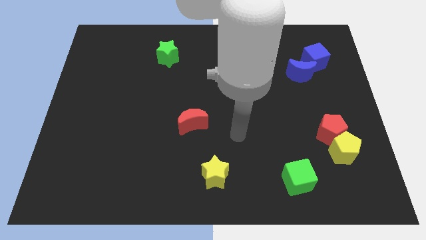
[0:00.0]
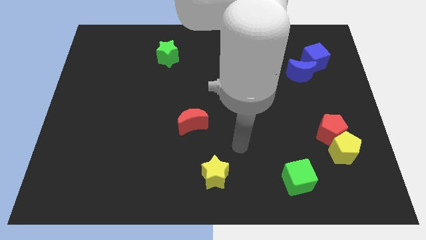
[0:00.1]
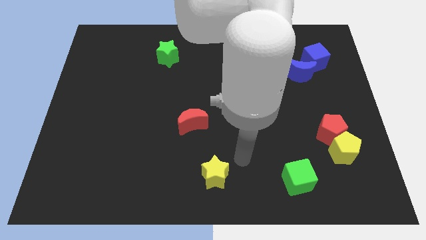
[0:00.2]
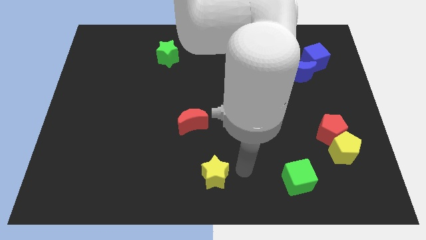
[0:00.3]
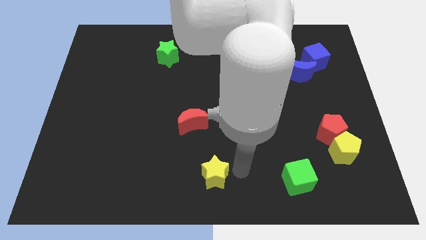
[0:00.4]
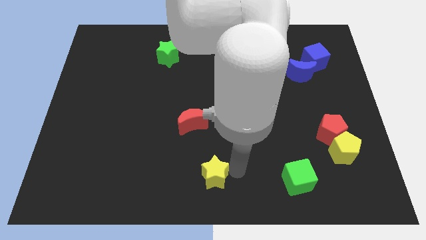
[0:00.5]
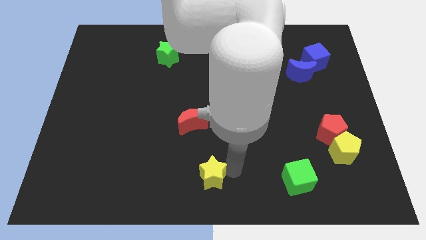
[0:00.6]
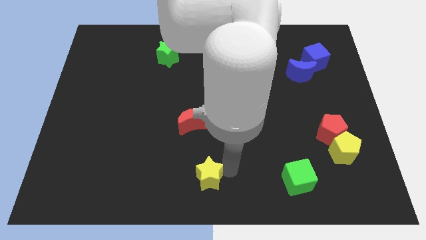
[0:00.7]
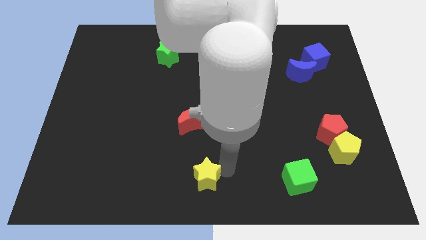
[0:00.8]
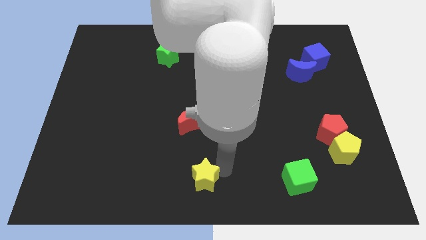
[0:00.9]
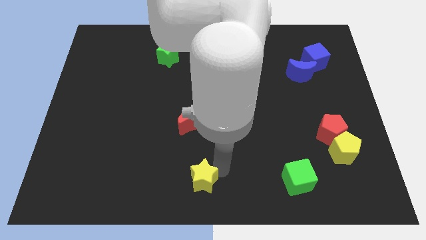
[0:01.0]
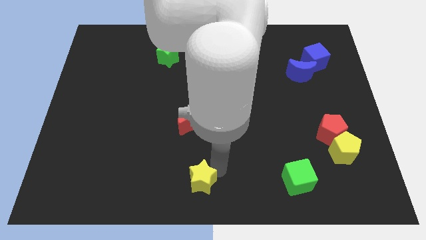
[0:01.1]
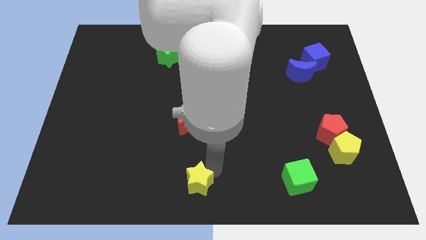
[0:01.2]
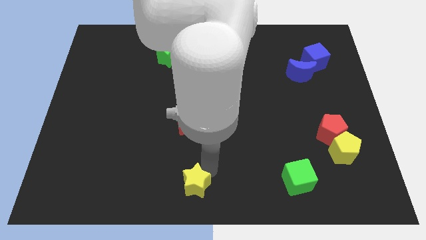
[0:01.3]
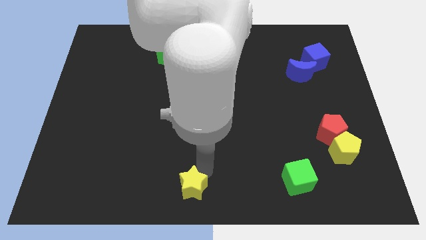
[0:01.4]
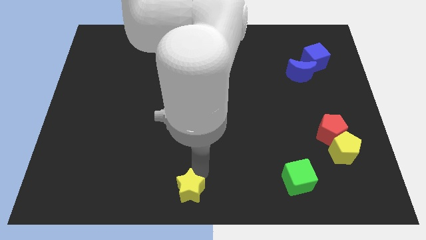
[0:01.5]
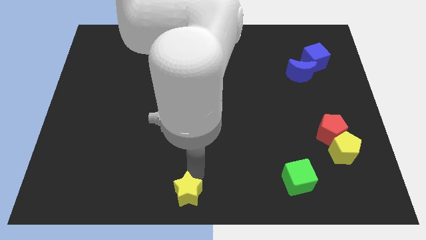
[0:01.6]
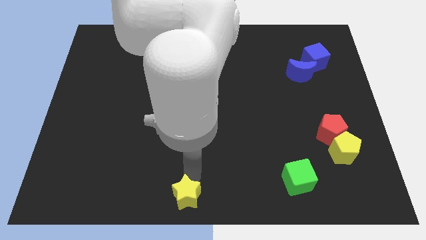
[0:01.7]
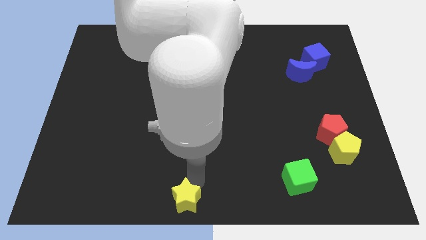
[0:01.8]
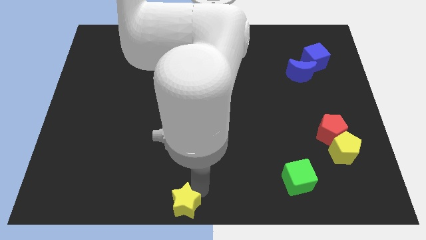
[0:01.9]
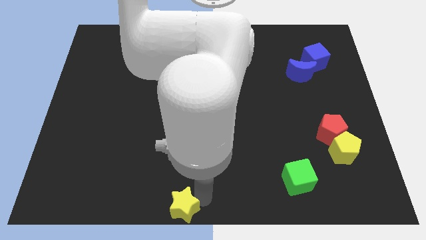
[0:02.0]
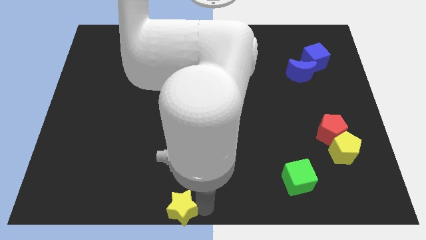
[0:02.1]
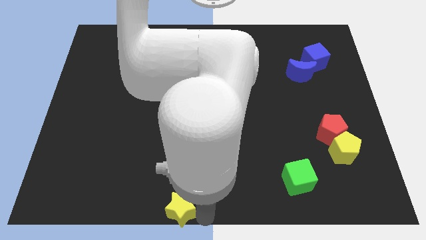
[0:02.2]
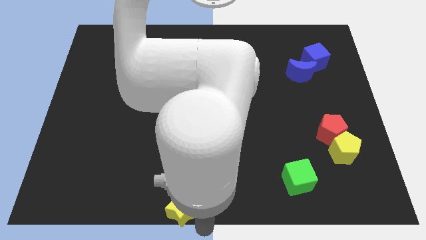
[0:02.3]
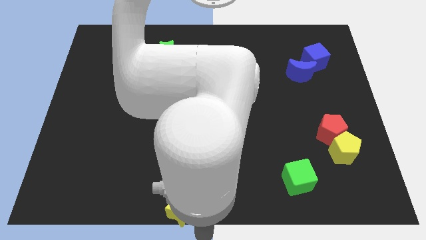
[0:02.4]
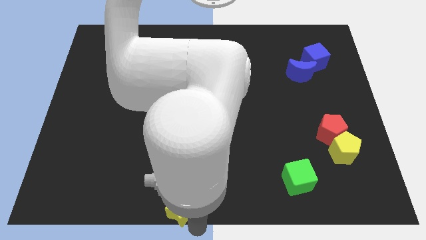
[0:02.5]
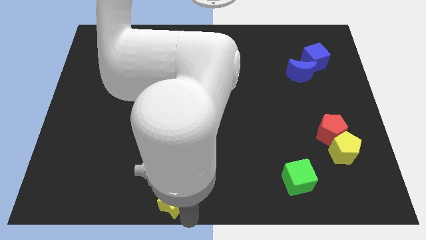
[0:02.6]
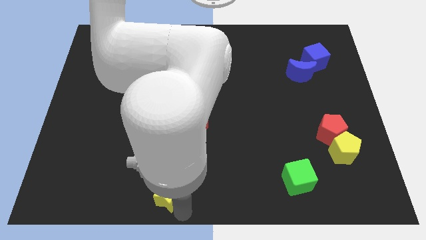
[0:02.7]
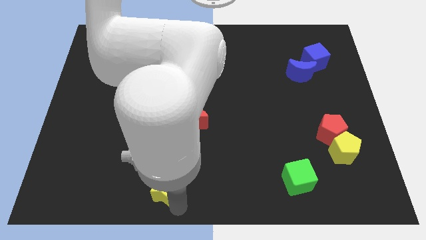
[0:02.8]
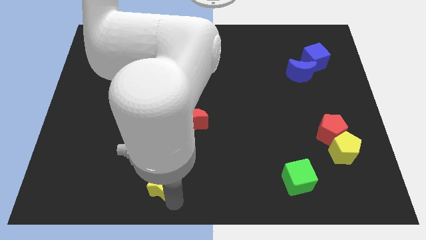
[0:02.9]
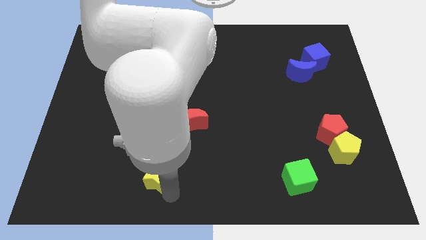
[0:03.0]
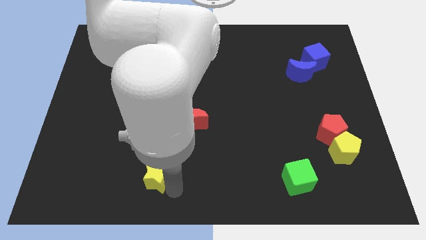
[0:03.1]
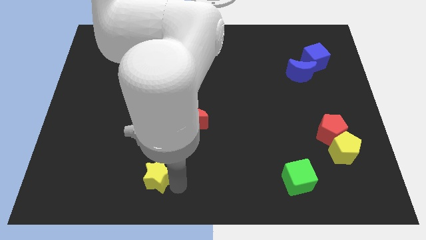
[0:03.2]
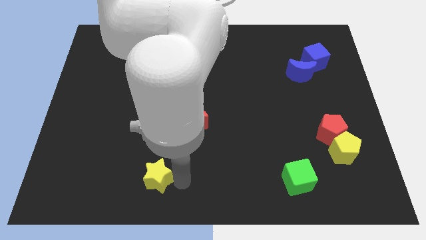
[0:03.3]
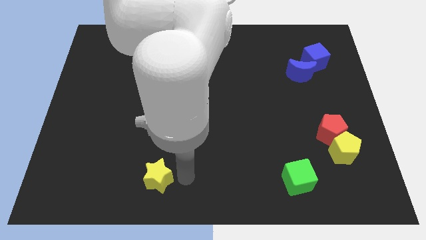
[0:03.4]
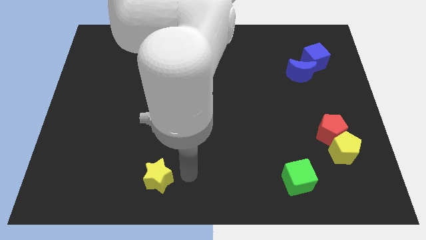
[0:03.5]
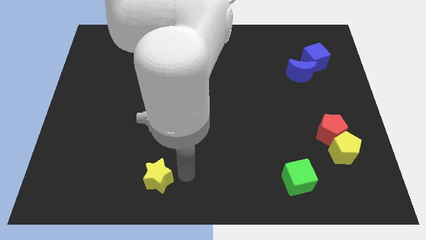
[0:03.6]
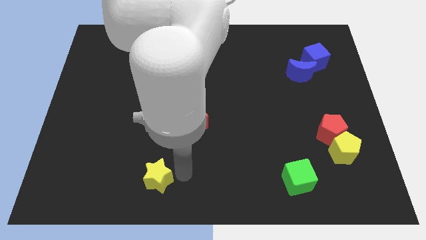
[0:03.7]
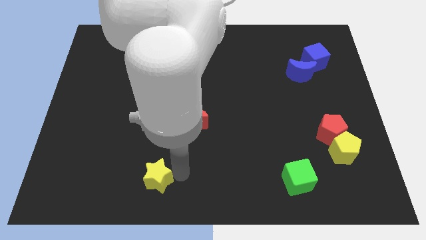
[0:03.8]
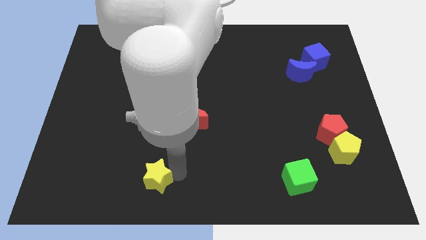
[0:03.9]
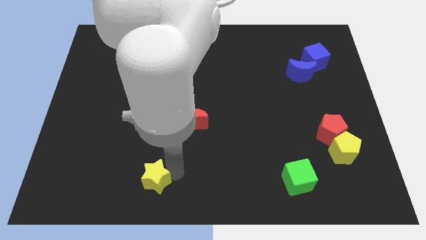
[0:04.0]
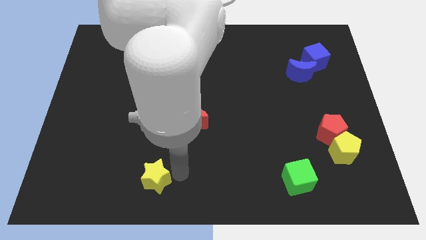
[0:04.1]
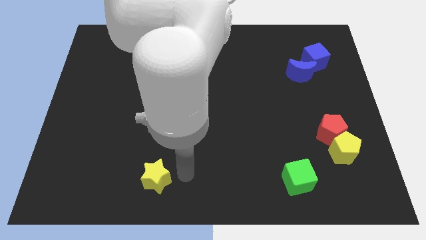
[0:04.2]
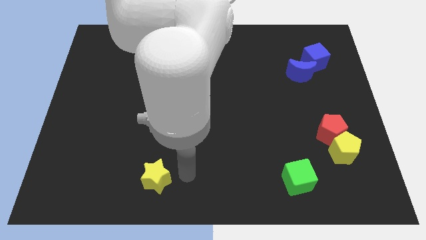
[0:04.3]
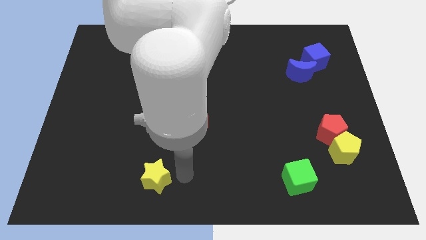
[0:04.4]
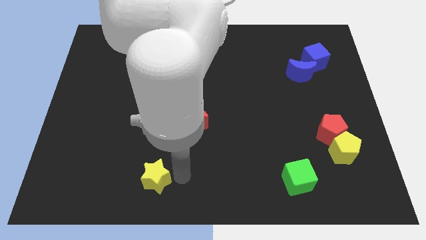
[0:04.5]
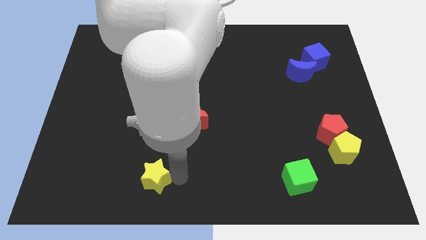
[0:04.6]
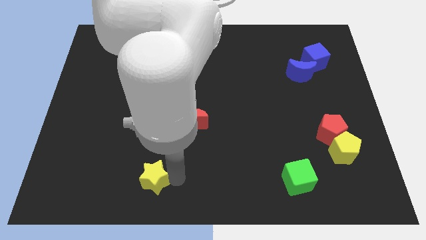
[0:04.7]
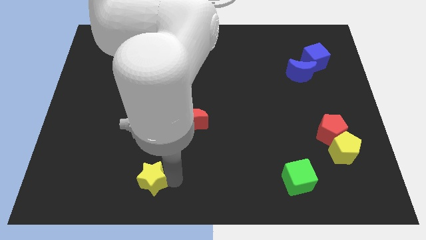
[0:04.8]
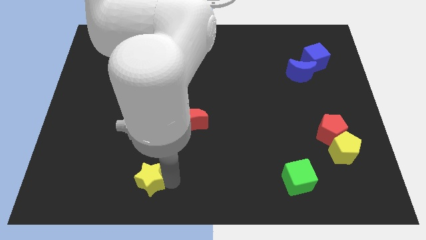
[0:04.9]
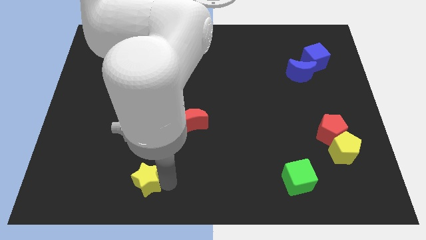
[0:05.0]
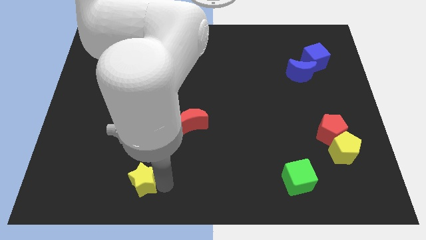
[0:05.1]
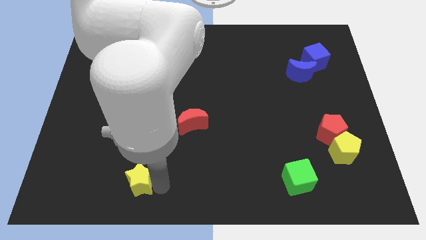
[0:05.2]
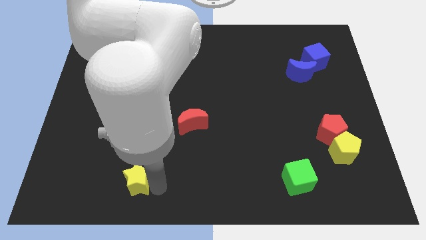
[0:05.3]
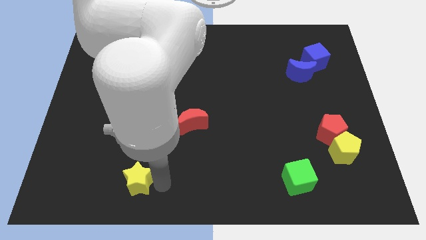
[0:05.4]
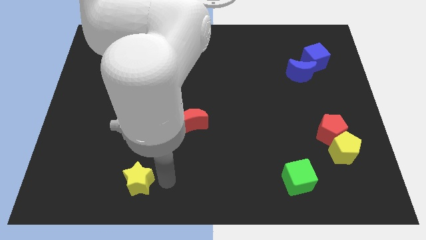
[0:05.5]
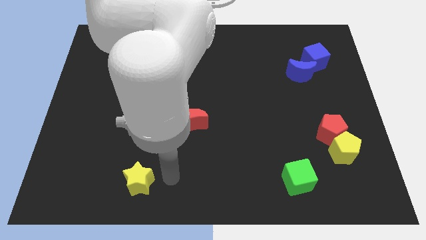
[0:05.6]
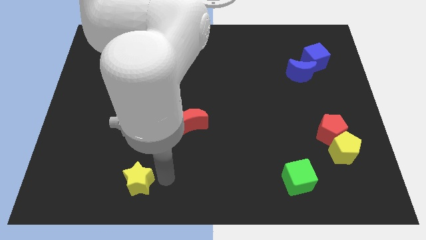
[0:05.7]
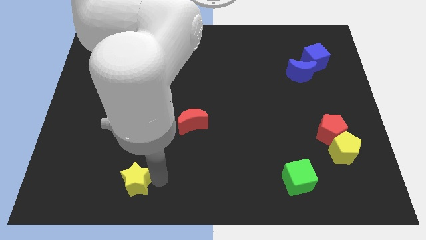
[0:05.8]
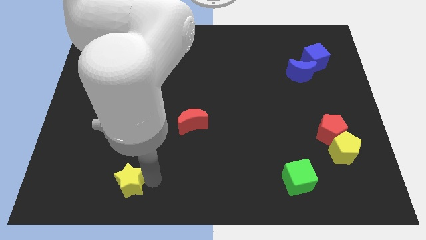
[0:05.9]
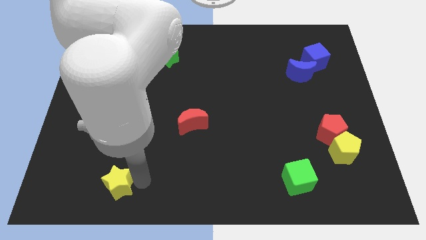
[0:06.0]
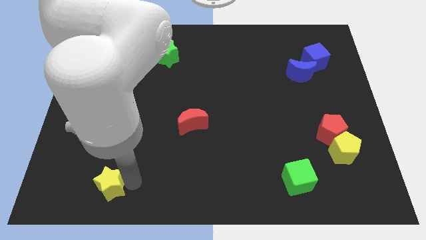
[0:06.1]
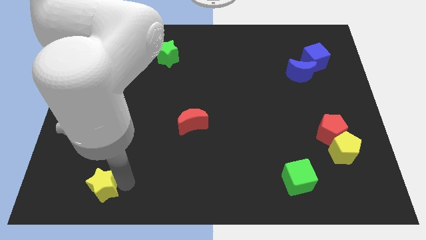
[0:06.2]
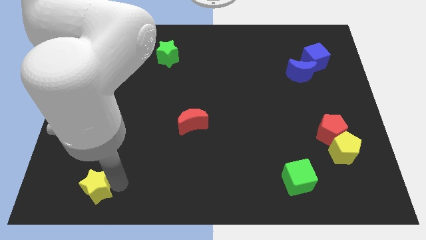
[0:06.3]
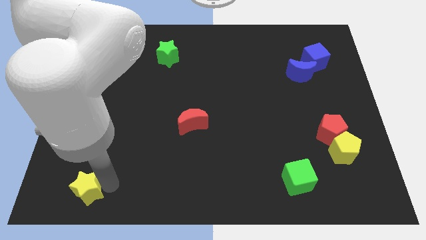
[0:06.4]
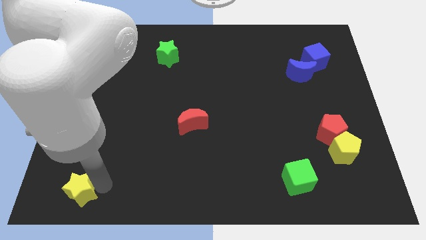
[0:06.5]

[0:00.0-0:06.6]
slide the yellow star to the bottom left of the board
